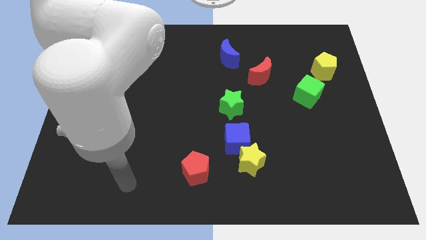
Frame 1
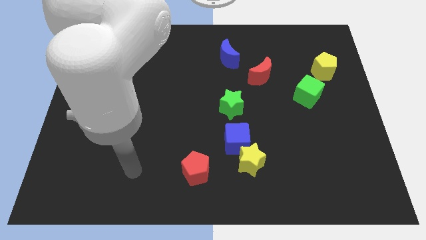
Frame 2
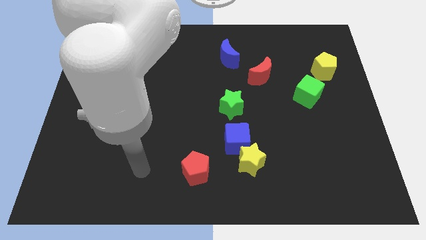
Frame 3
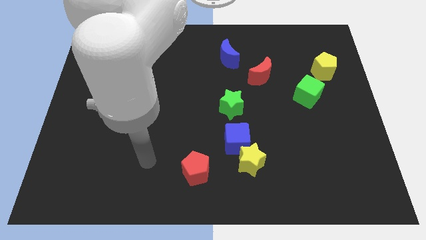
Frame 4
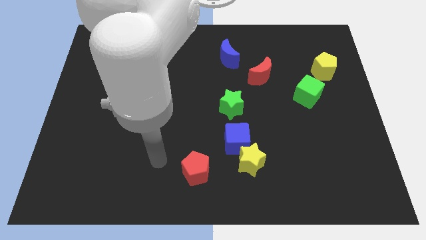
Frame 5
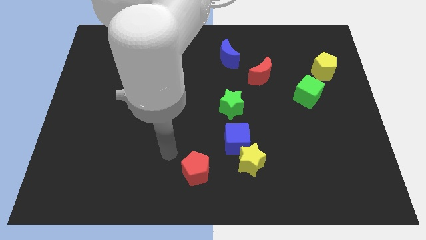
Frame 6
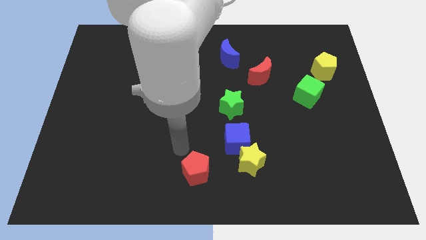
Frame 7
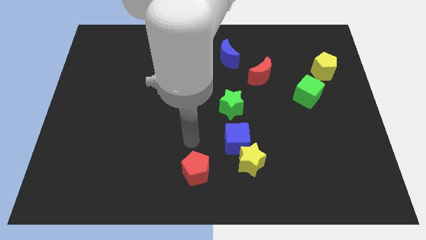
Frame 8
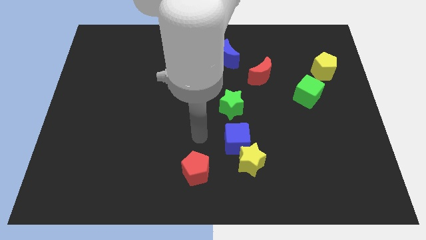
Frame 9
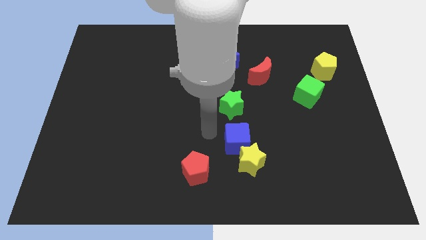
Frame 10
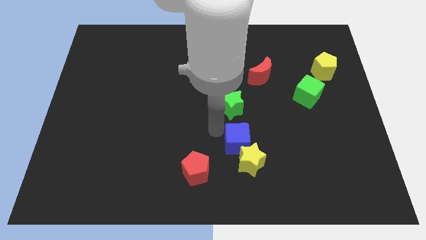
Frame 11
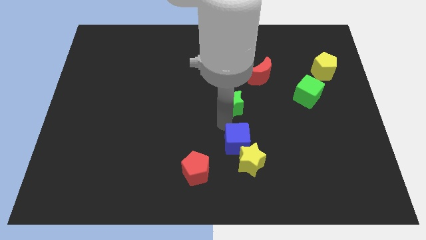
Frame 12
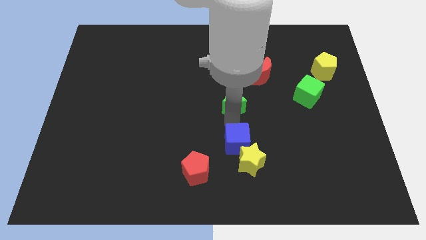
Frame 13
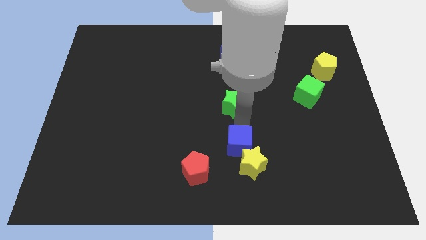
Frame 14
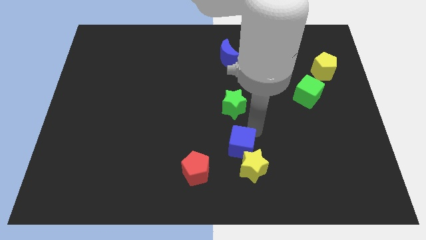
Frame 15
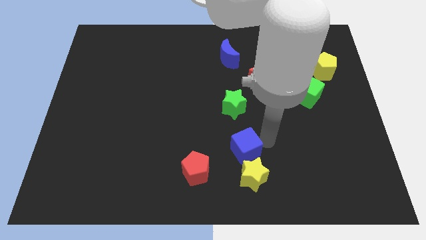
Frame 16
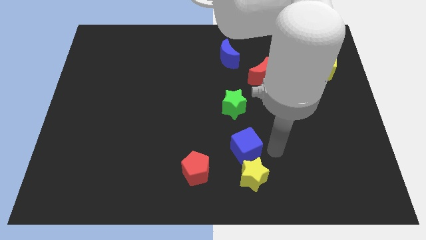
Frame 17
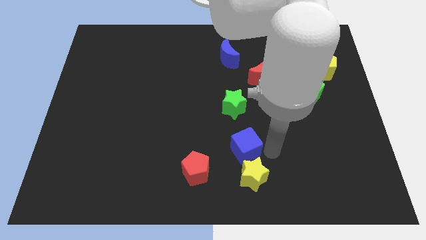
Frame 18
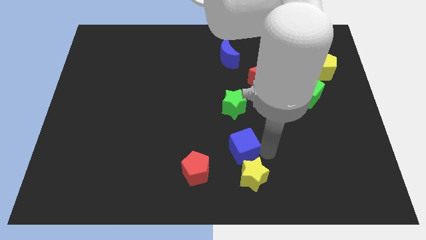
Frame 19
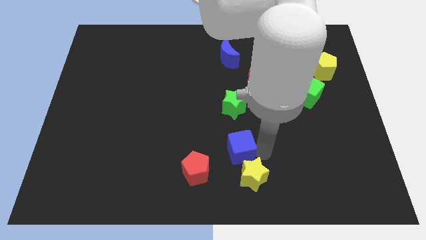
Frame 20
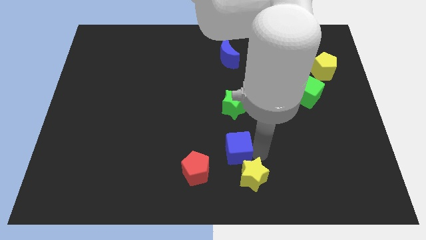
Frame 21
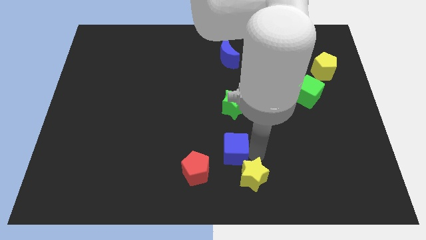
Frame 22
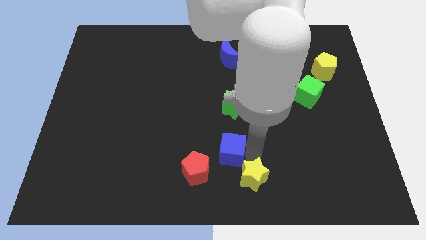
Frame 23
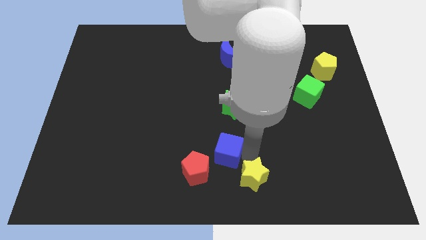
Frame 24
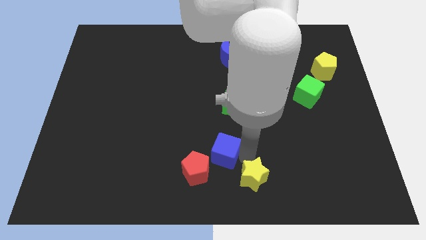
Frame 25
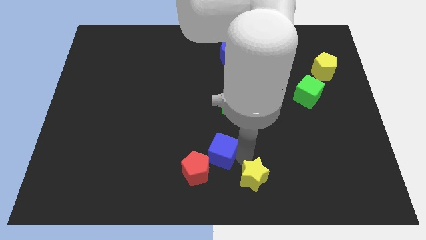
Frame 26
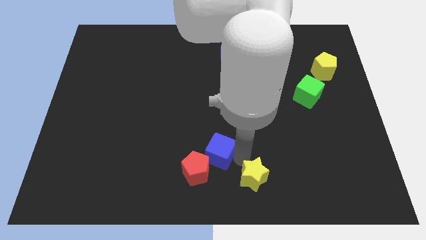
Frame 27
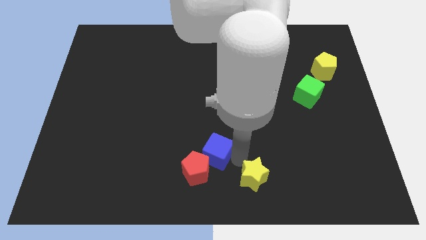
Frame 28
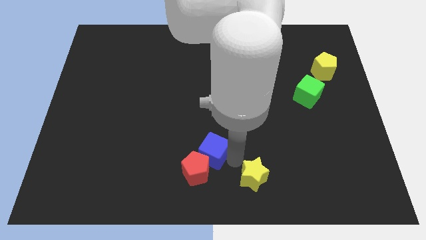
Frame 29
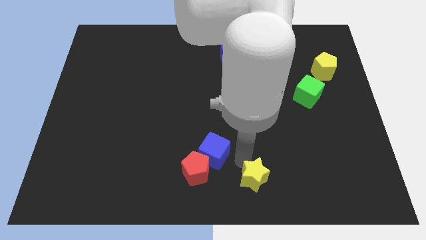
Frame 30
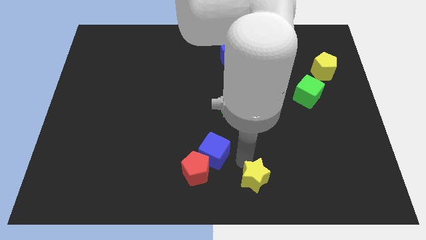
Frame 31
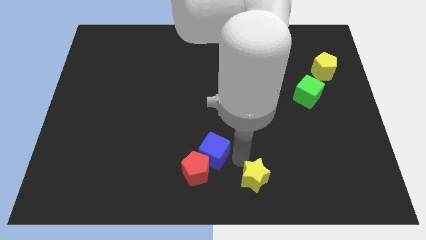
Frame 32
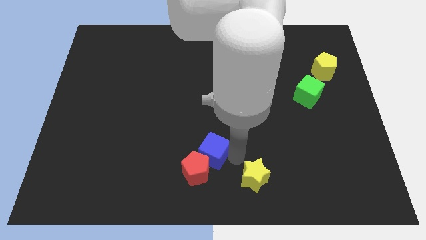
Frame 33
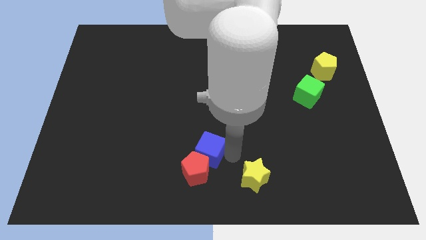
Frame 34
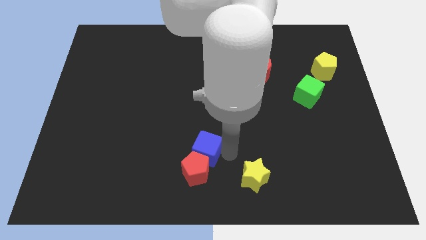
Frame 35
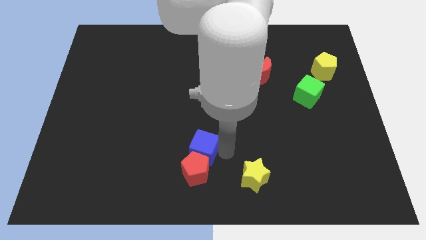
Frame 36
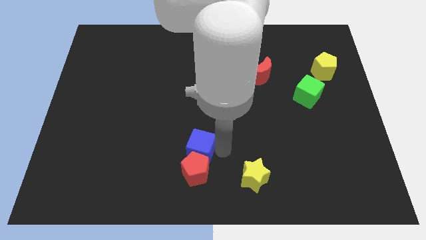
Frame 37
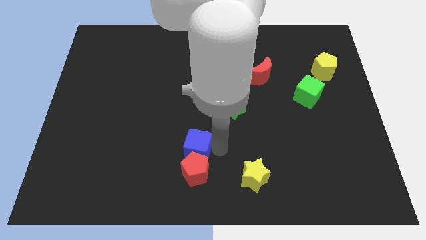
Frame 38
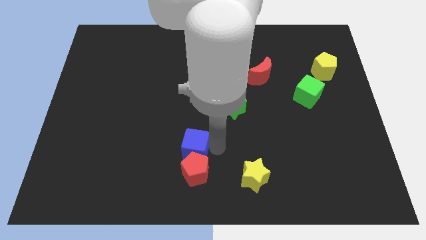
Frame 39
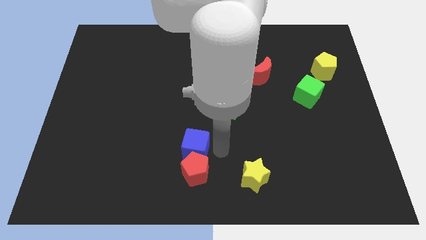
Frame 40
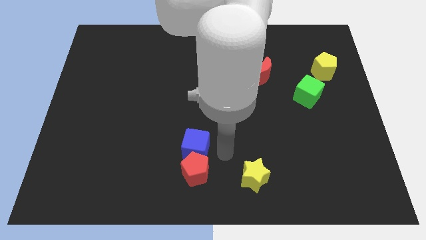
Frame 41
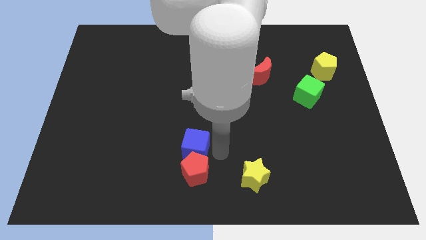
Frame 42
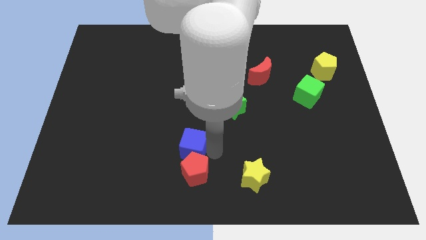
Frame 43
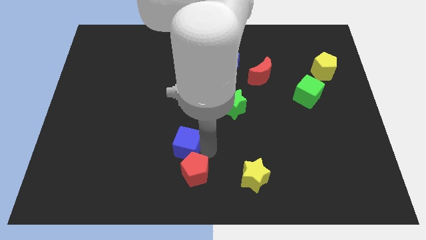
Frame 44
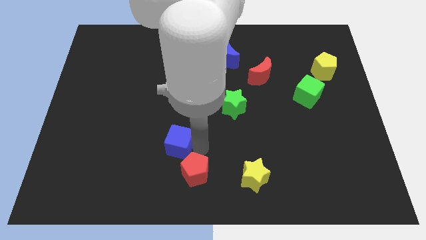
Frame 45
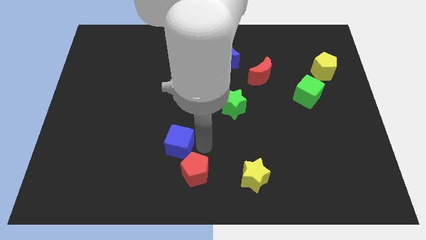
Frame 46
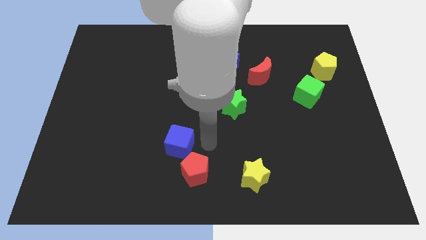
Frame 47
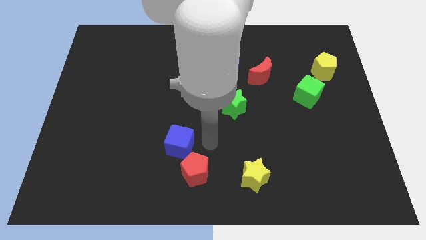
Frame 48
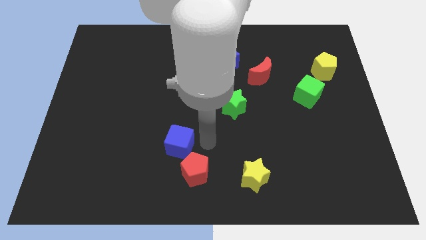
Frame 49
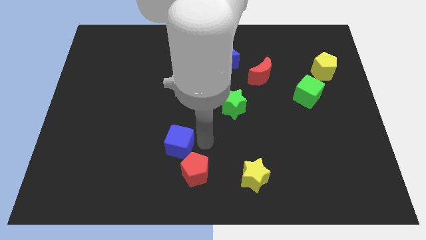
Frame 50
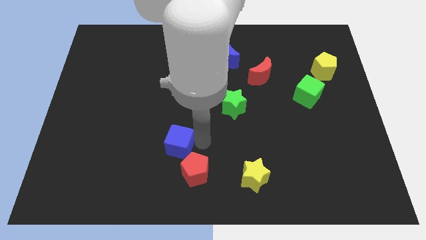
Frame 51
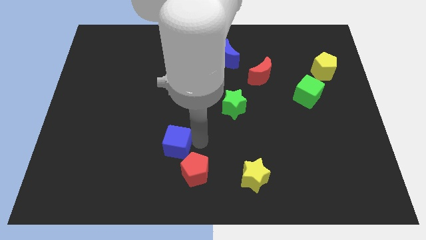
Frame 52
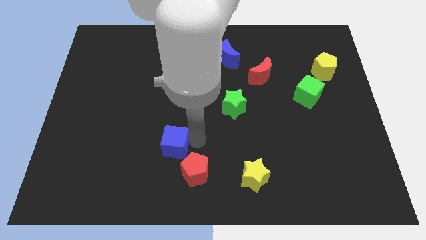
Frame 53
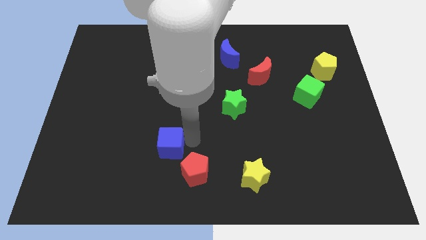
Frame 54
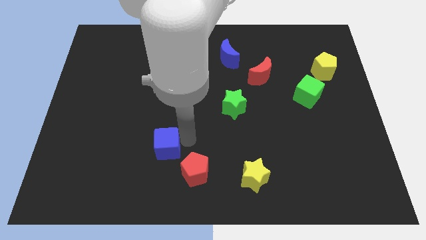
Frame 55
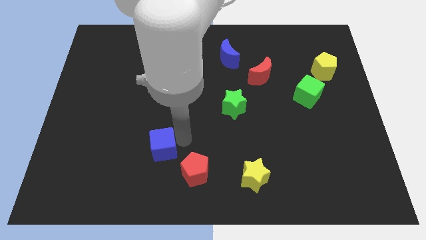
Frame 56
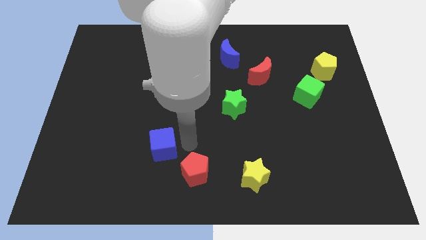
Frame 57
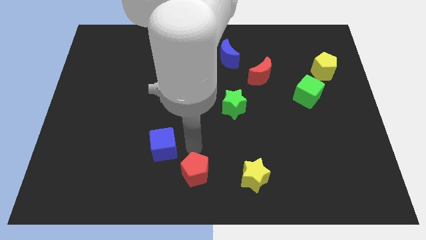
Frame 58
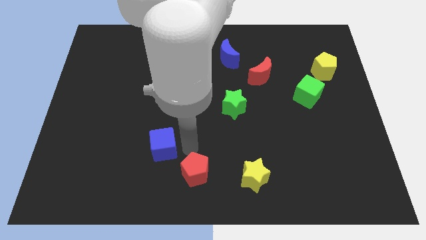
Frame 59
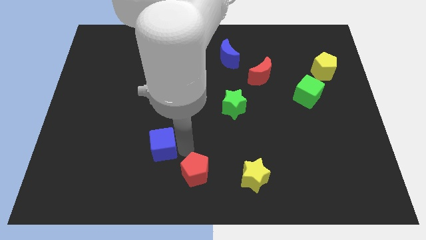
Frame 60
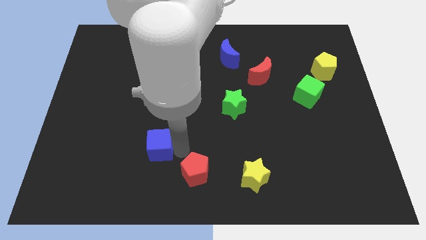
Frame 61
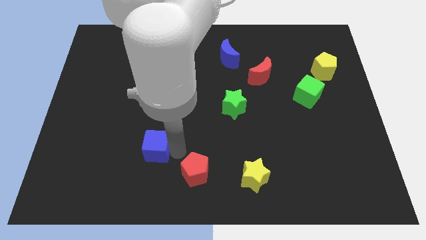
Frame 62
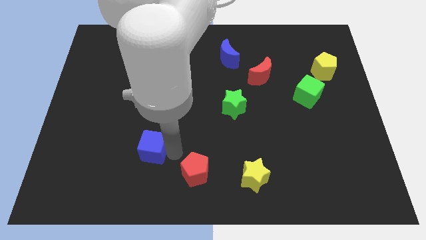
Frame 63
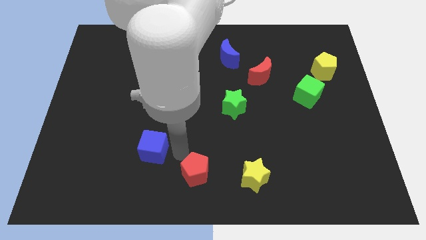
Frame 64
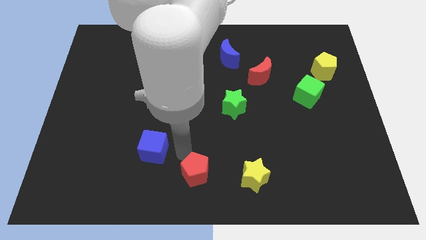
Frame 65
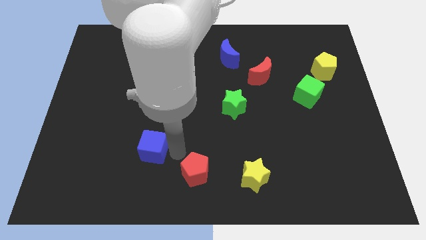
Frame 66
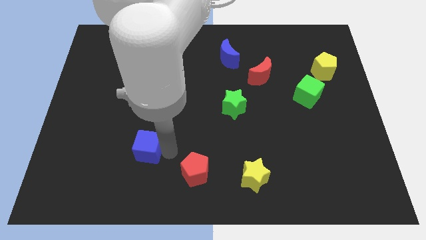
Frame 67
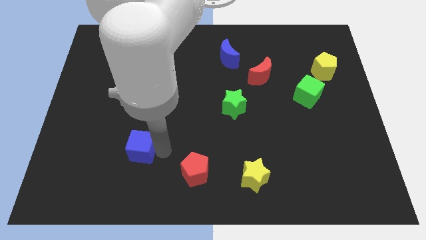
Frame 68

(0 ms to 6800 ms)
slide the blue cube to the left

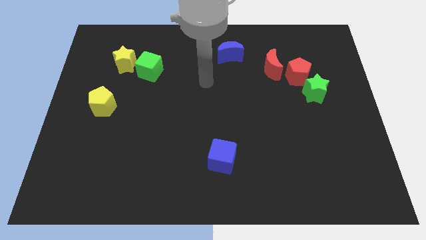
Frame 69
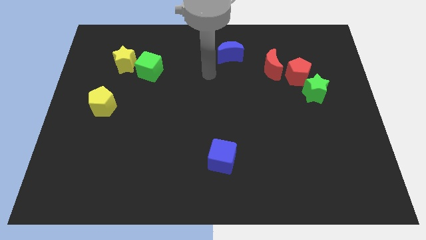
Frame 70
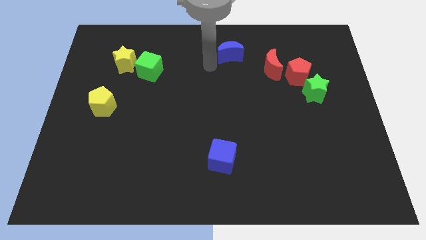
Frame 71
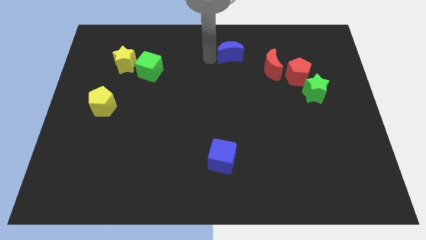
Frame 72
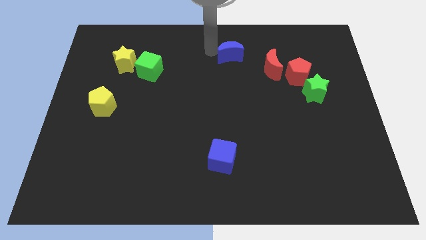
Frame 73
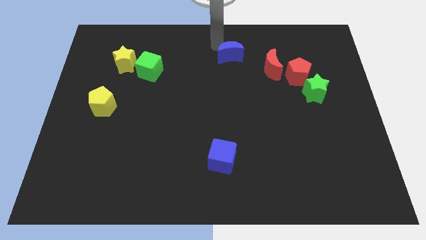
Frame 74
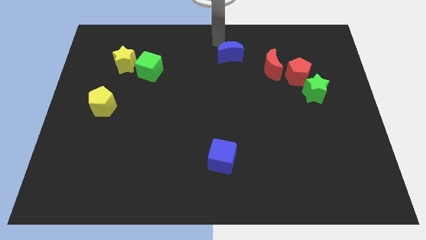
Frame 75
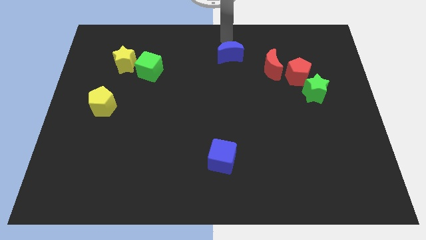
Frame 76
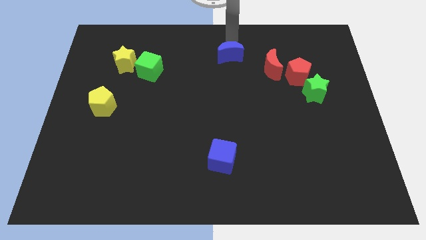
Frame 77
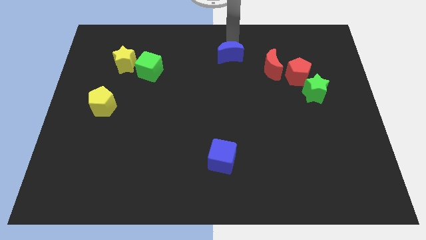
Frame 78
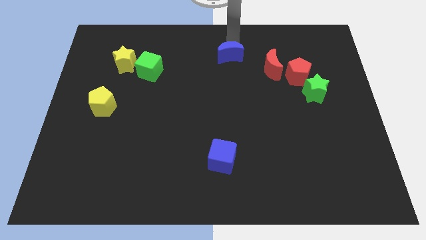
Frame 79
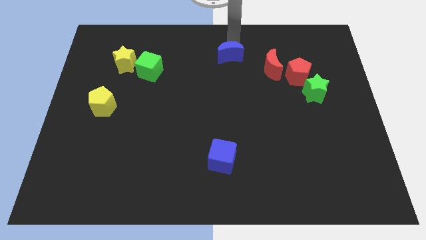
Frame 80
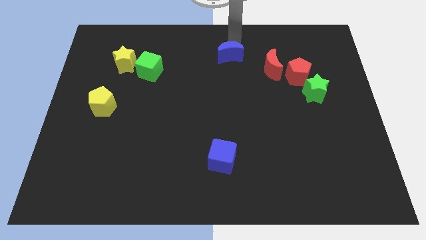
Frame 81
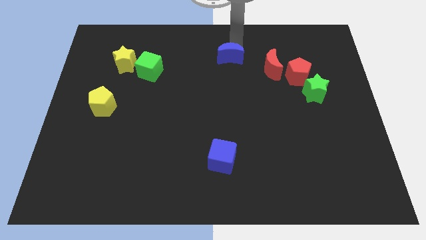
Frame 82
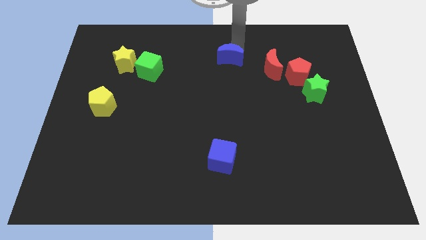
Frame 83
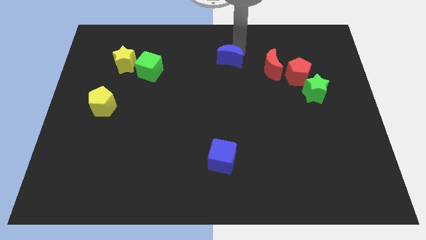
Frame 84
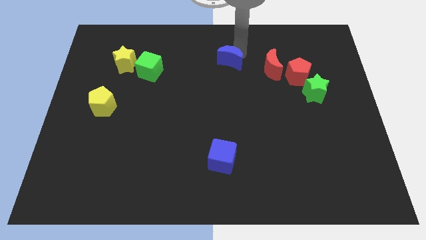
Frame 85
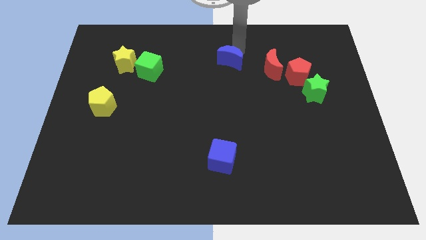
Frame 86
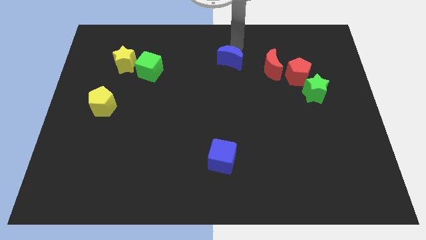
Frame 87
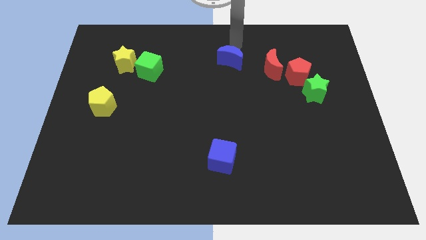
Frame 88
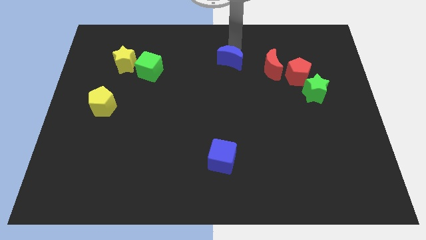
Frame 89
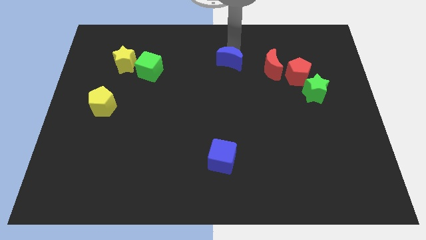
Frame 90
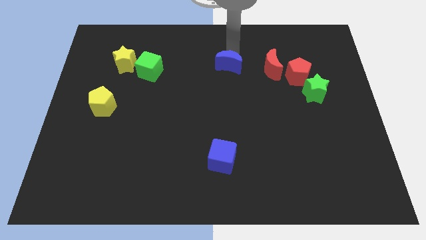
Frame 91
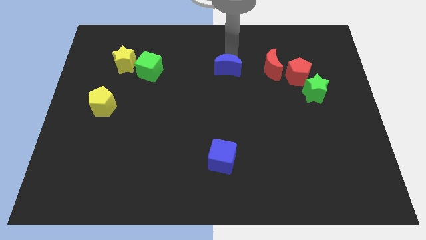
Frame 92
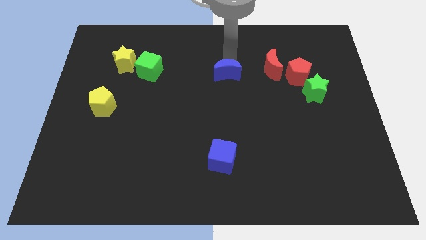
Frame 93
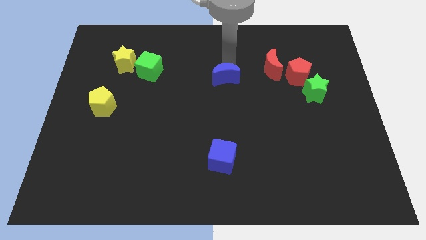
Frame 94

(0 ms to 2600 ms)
slide the blue moon downwards a little bit
